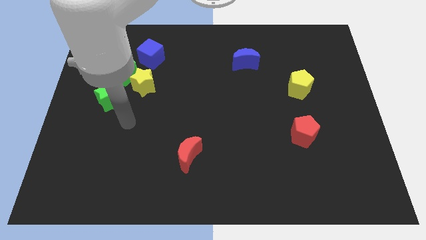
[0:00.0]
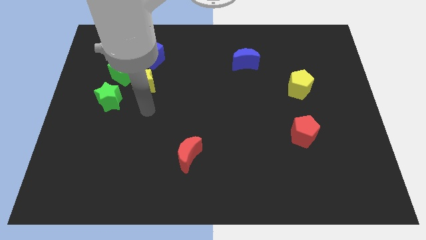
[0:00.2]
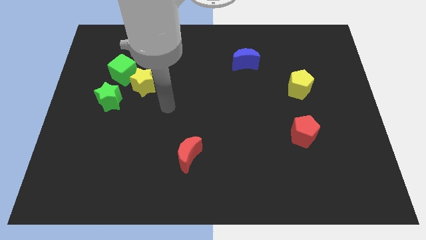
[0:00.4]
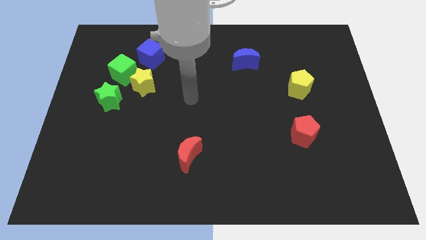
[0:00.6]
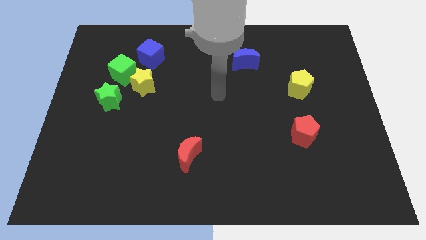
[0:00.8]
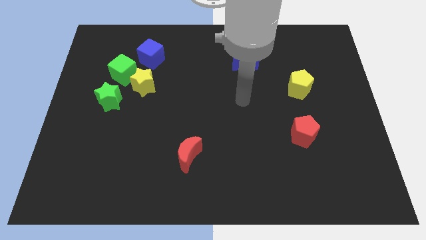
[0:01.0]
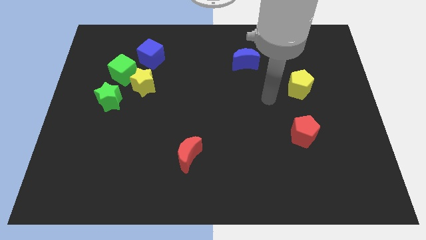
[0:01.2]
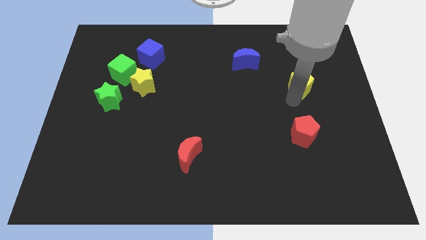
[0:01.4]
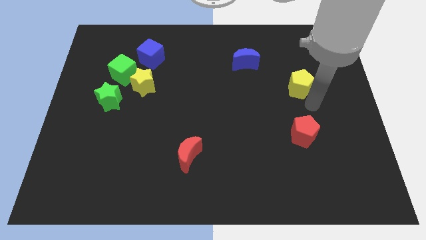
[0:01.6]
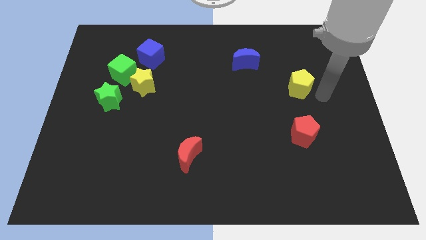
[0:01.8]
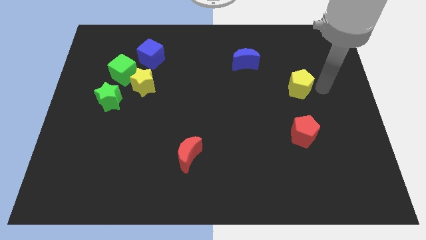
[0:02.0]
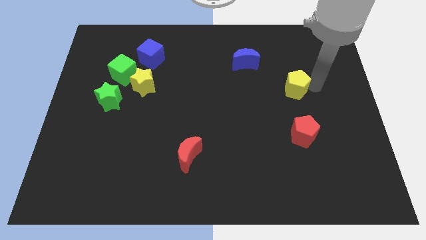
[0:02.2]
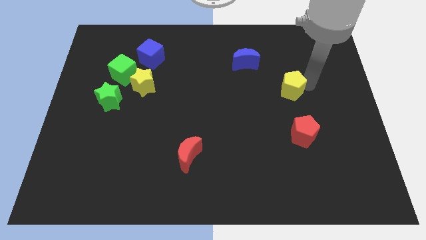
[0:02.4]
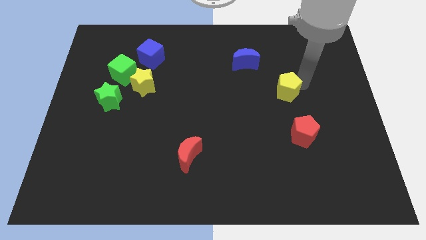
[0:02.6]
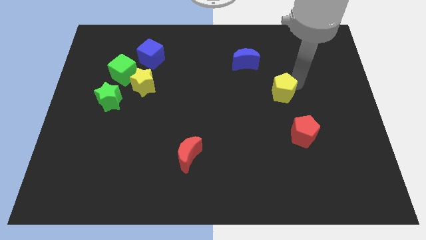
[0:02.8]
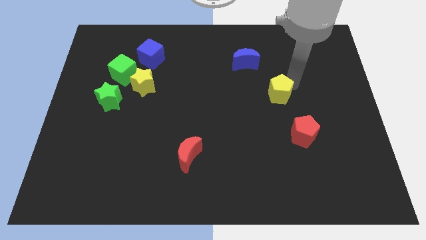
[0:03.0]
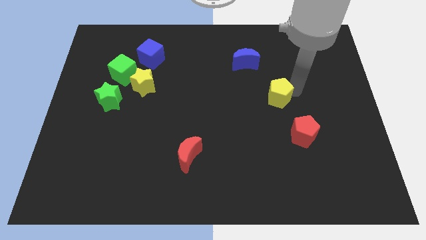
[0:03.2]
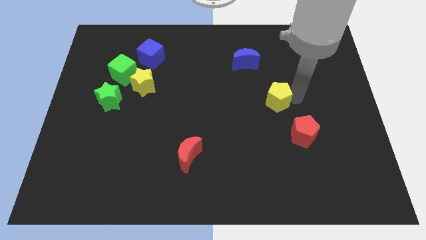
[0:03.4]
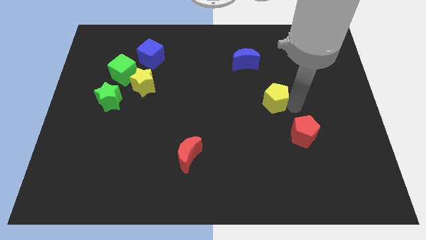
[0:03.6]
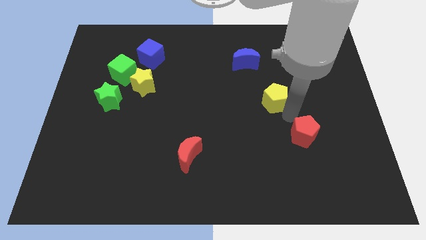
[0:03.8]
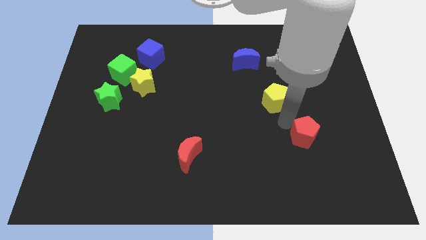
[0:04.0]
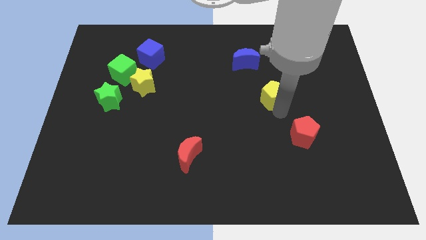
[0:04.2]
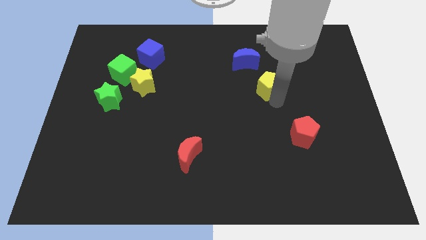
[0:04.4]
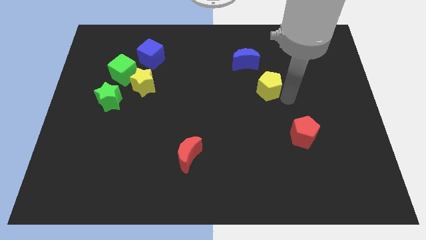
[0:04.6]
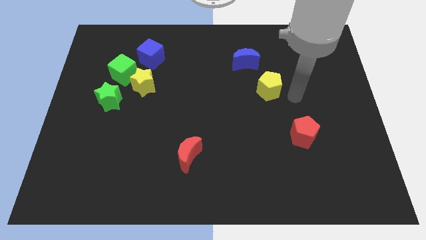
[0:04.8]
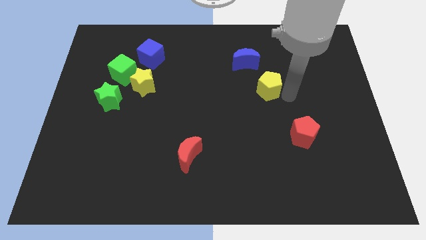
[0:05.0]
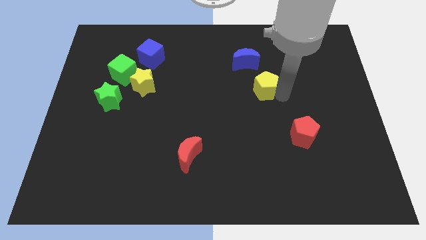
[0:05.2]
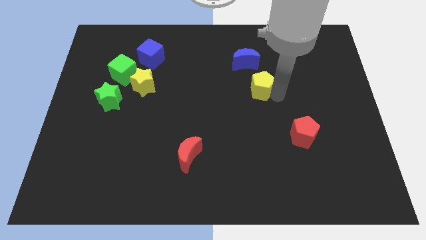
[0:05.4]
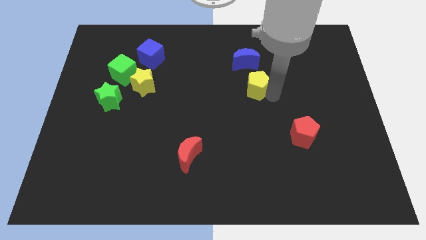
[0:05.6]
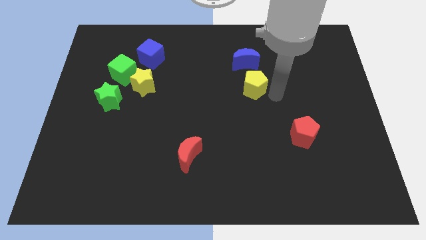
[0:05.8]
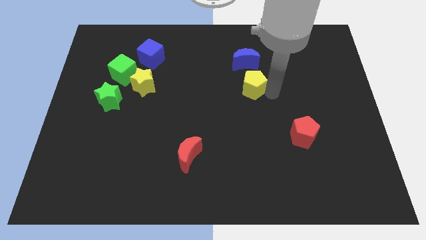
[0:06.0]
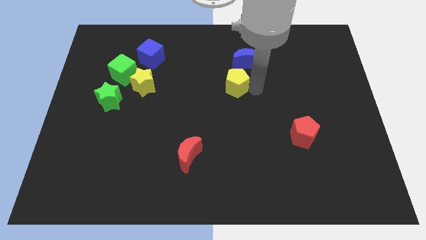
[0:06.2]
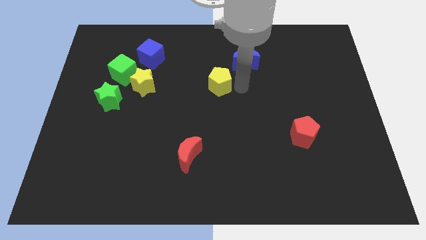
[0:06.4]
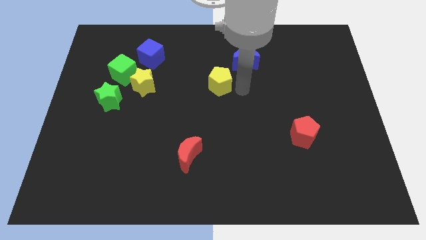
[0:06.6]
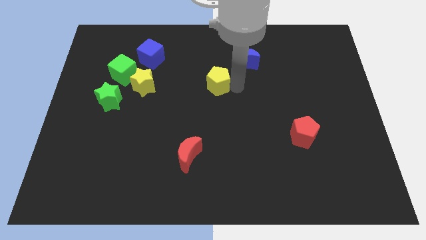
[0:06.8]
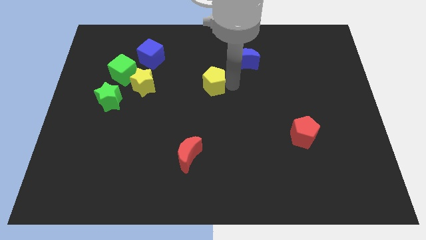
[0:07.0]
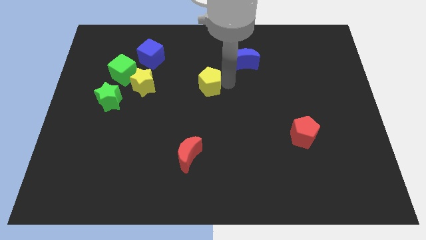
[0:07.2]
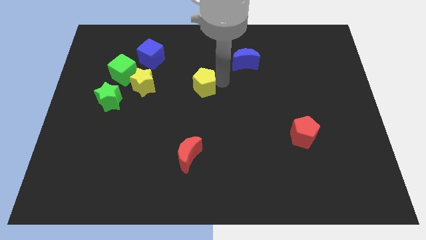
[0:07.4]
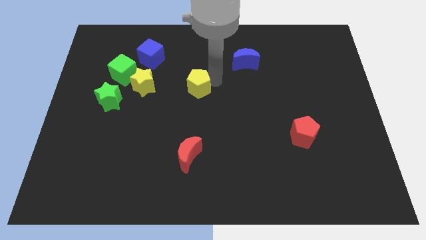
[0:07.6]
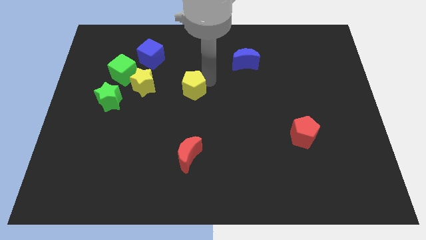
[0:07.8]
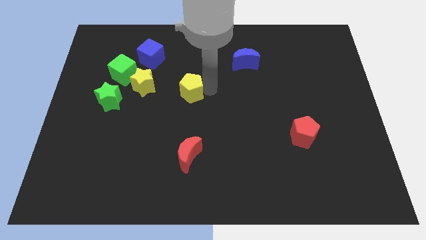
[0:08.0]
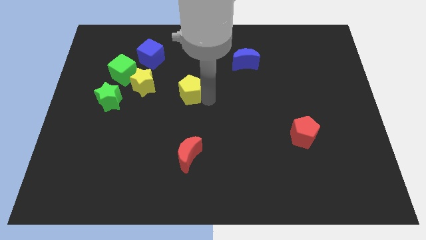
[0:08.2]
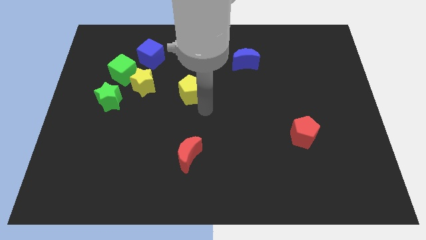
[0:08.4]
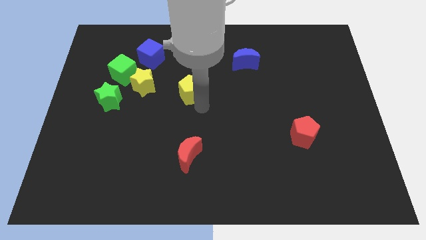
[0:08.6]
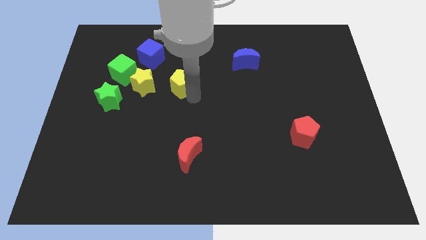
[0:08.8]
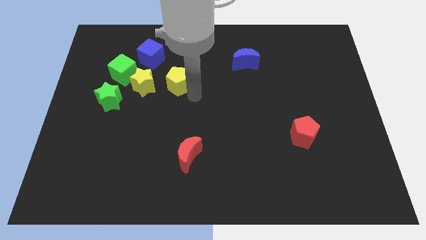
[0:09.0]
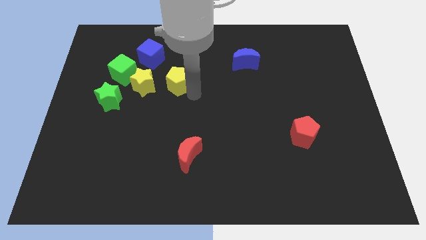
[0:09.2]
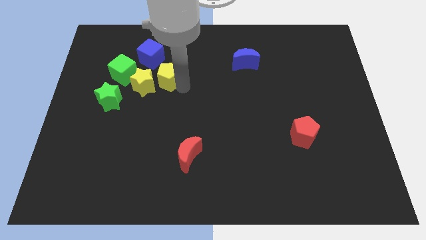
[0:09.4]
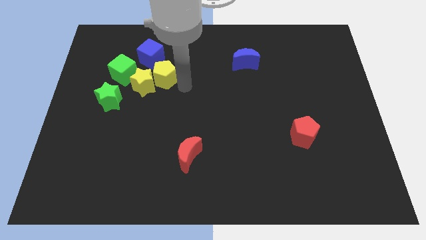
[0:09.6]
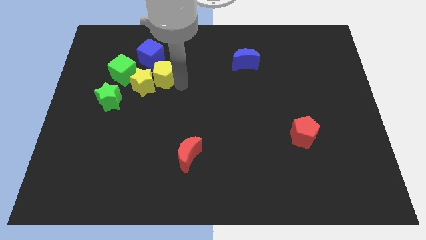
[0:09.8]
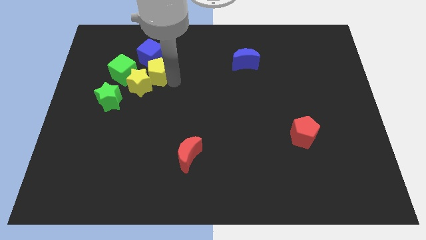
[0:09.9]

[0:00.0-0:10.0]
slide the yellow pentagon to the top of the yellow star

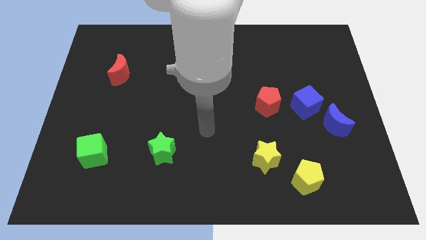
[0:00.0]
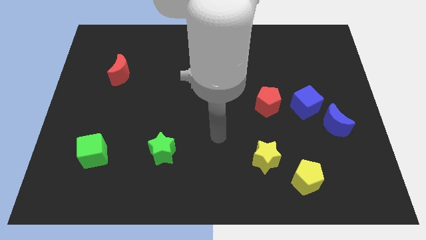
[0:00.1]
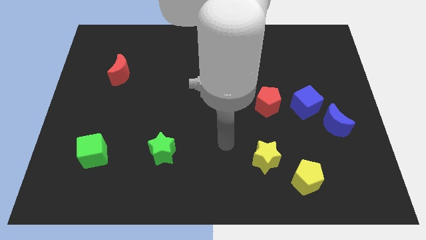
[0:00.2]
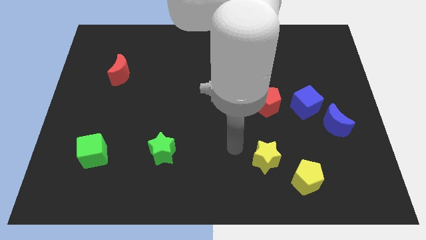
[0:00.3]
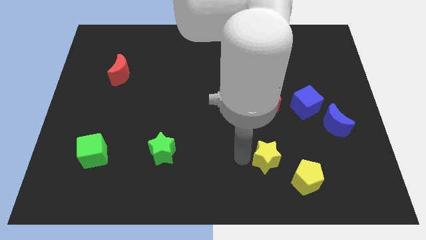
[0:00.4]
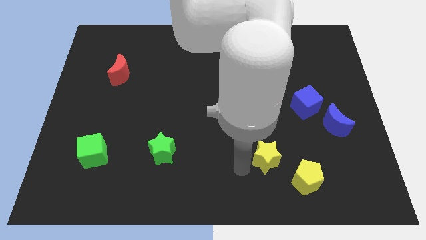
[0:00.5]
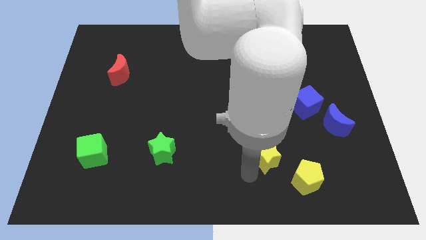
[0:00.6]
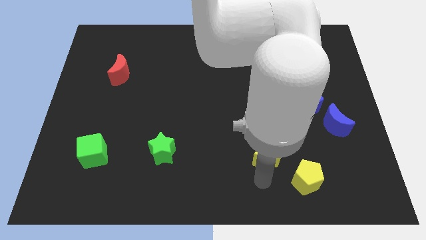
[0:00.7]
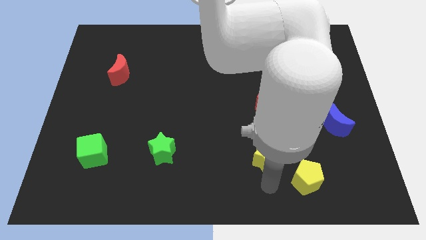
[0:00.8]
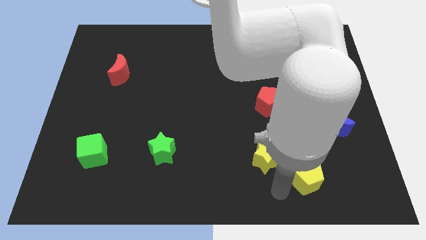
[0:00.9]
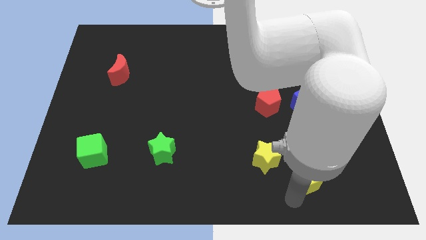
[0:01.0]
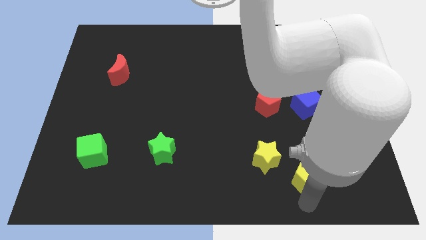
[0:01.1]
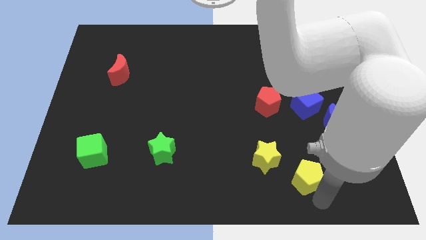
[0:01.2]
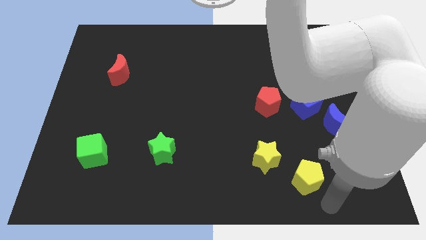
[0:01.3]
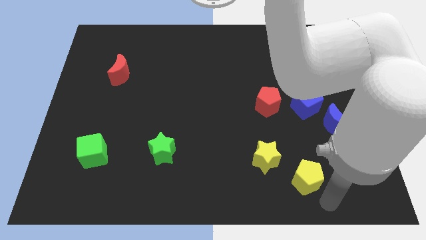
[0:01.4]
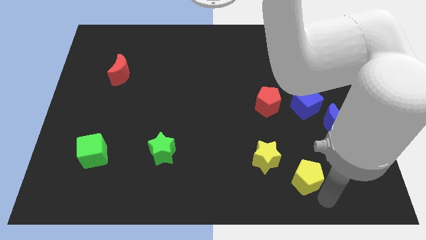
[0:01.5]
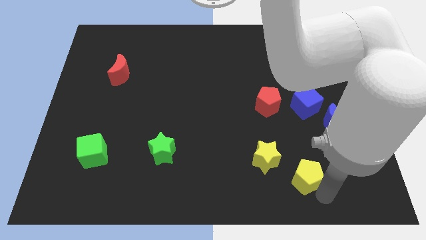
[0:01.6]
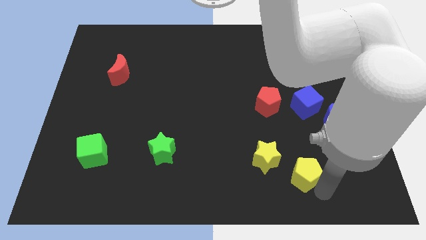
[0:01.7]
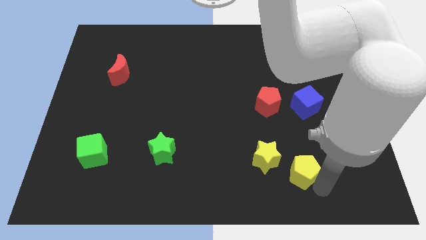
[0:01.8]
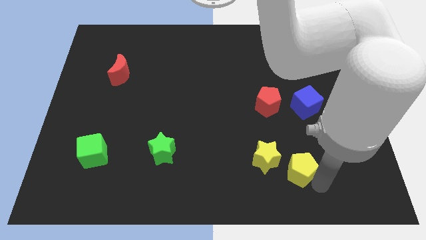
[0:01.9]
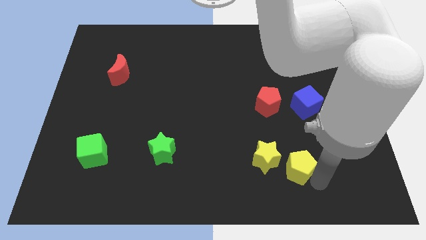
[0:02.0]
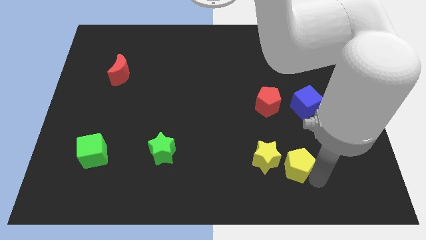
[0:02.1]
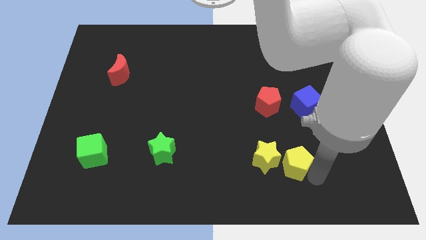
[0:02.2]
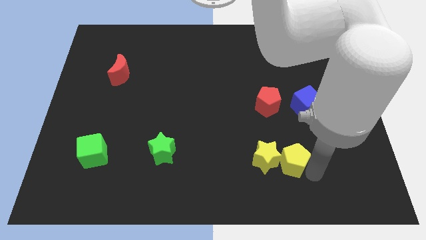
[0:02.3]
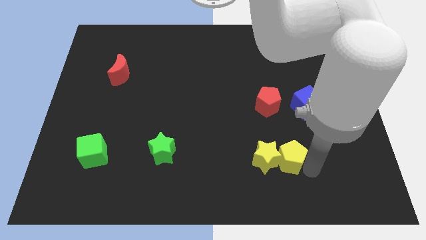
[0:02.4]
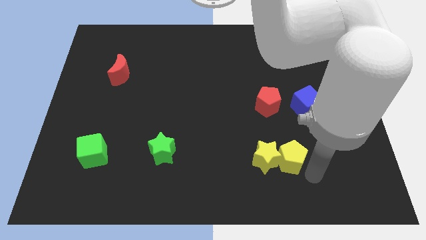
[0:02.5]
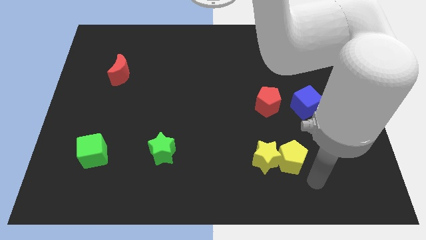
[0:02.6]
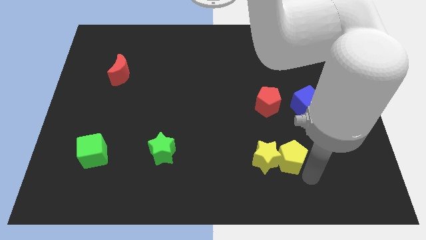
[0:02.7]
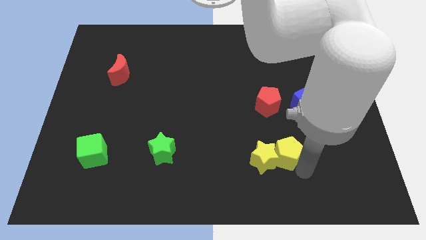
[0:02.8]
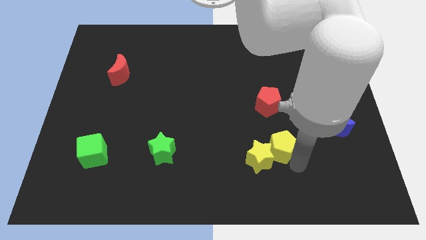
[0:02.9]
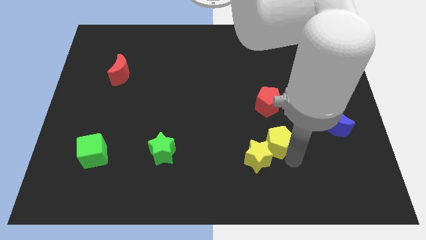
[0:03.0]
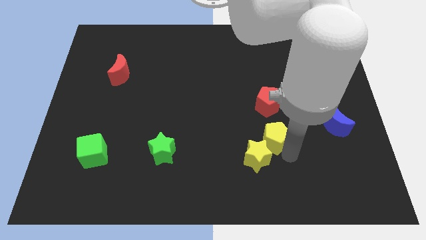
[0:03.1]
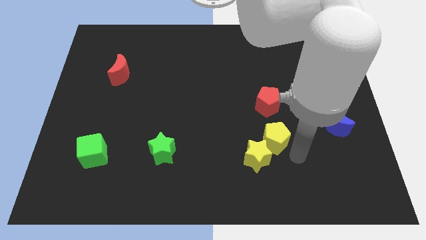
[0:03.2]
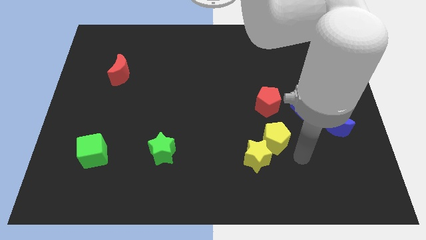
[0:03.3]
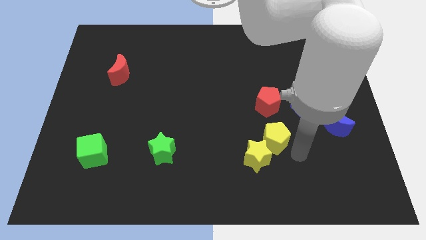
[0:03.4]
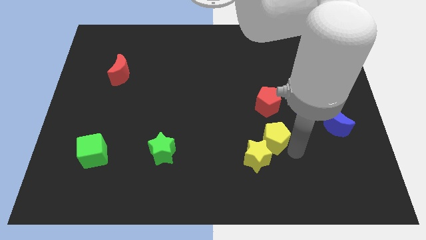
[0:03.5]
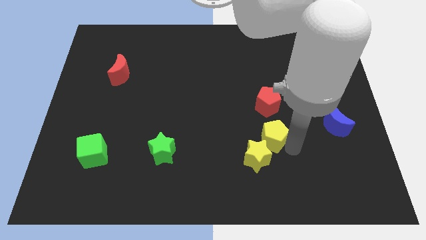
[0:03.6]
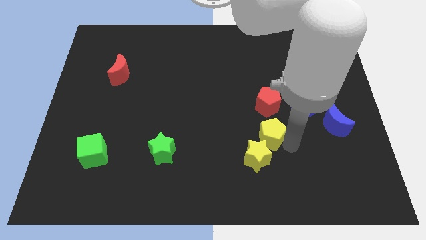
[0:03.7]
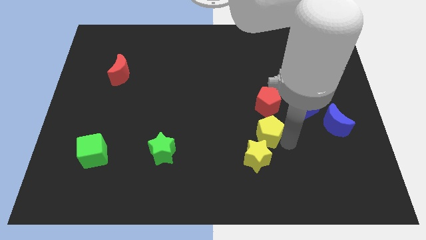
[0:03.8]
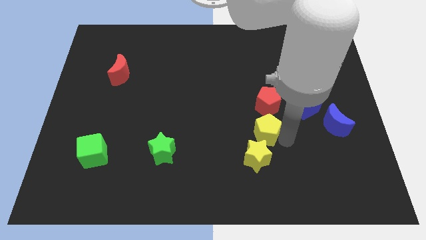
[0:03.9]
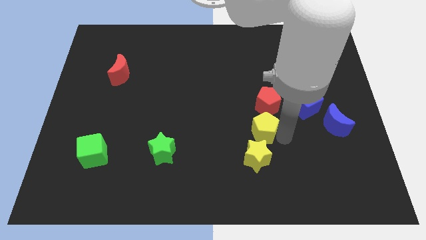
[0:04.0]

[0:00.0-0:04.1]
move the yellow pentagon to the bottom left of the red pentagon
